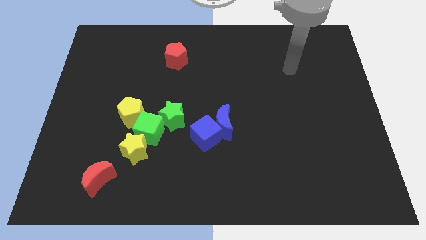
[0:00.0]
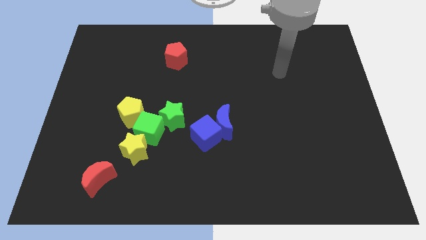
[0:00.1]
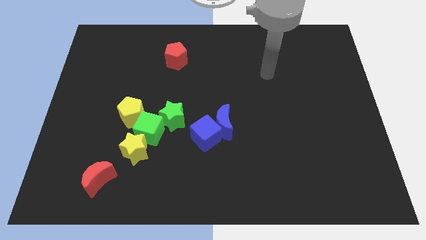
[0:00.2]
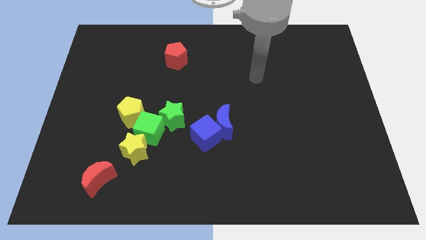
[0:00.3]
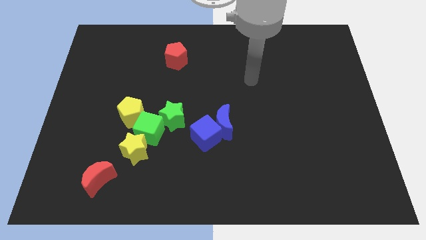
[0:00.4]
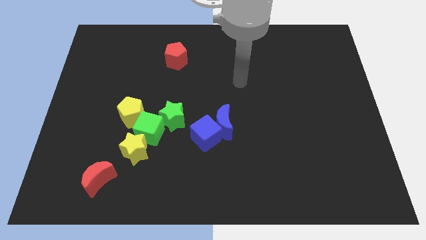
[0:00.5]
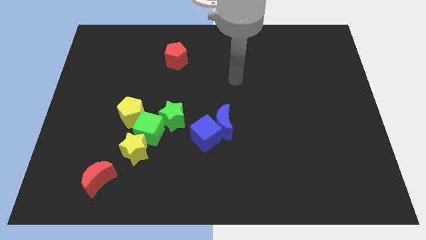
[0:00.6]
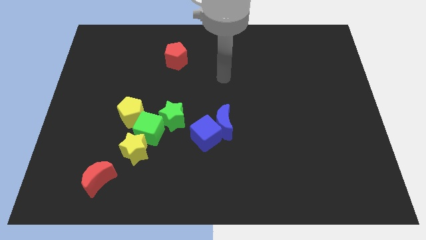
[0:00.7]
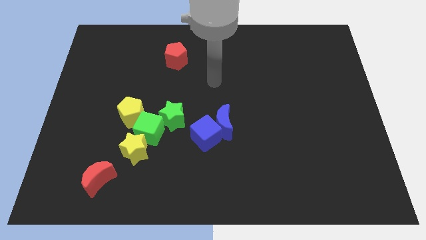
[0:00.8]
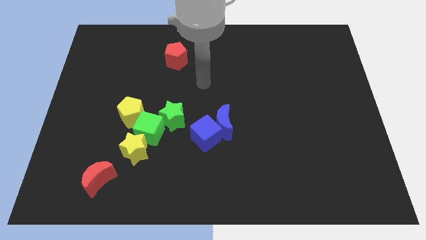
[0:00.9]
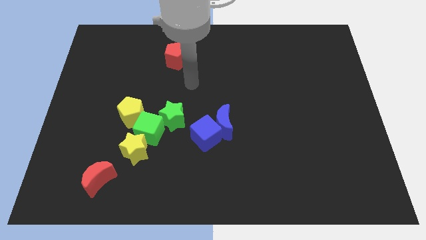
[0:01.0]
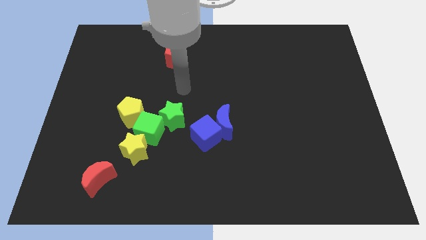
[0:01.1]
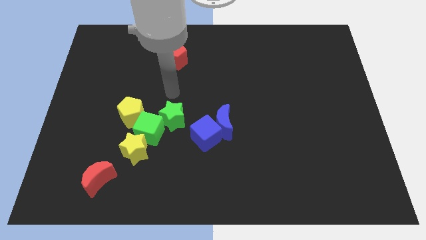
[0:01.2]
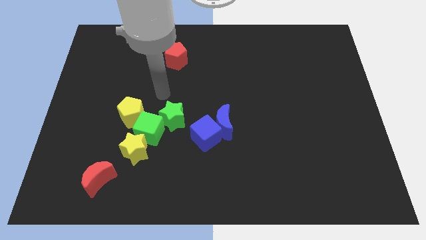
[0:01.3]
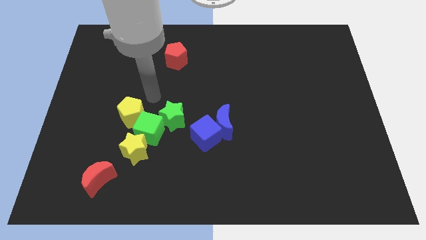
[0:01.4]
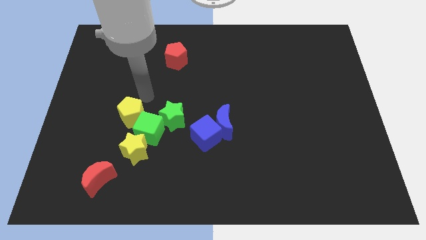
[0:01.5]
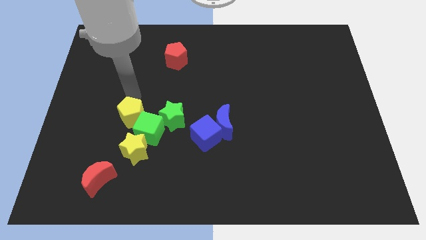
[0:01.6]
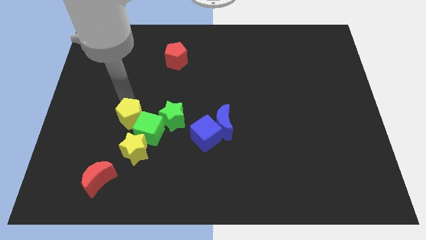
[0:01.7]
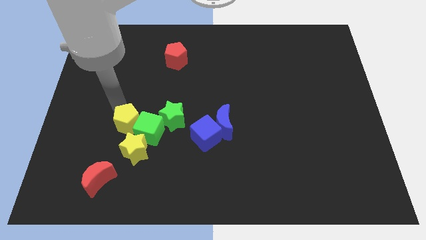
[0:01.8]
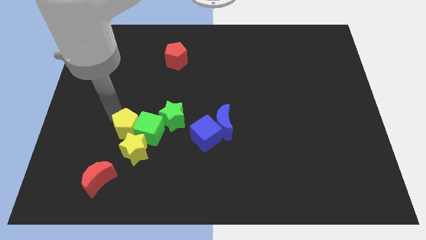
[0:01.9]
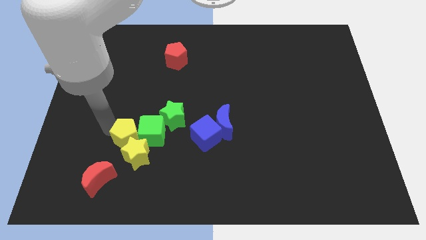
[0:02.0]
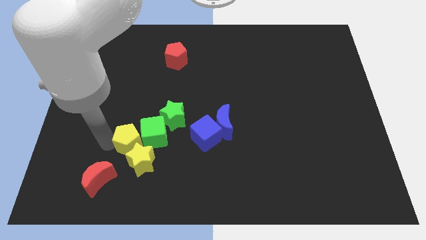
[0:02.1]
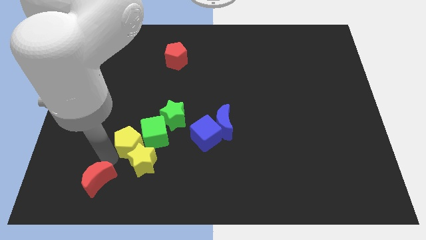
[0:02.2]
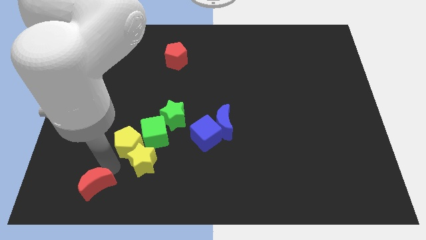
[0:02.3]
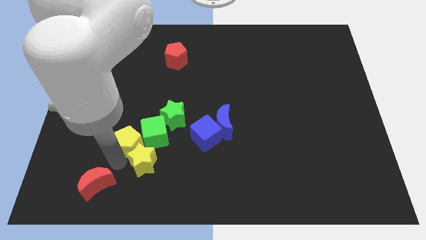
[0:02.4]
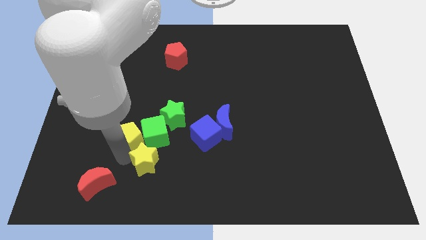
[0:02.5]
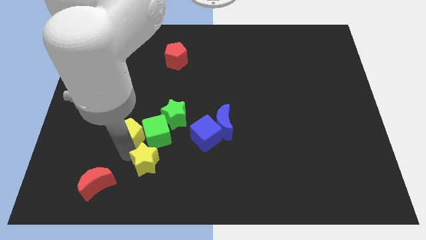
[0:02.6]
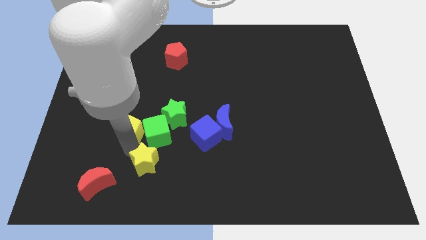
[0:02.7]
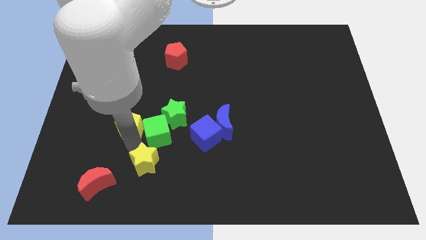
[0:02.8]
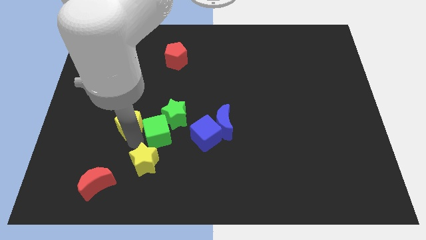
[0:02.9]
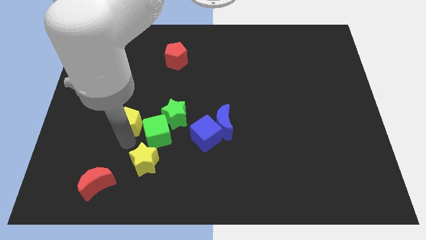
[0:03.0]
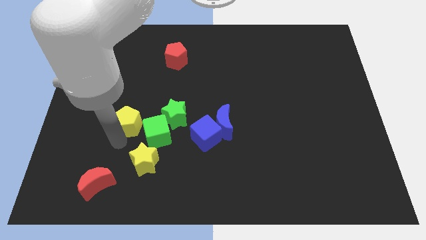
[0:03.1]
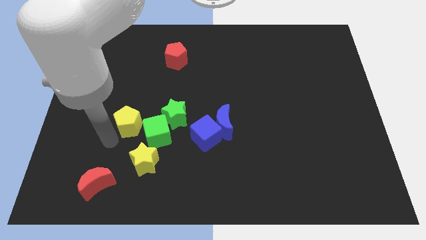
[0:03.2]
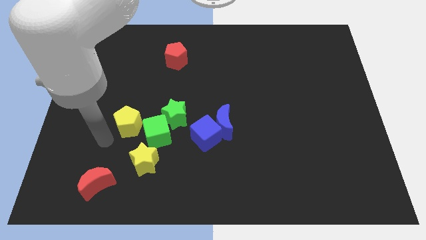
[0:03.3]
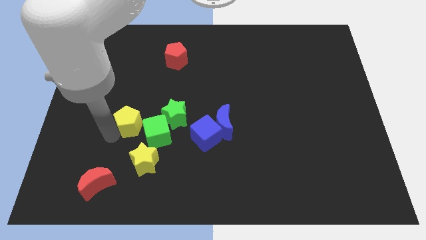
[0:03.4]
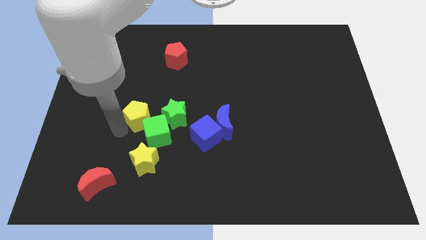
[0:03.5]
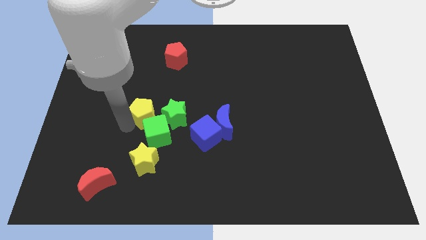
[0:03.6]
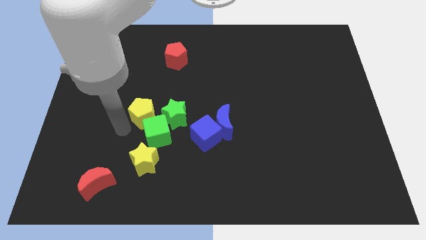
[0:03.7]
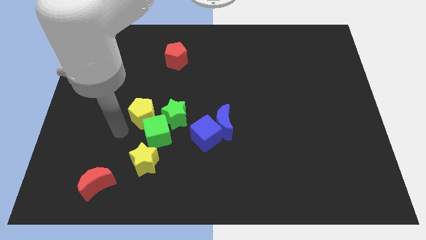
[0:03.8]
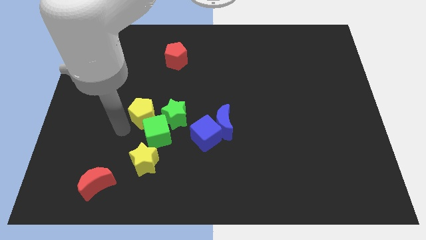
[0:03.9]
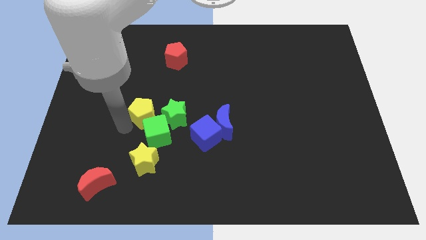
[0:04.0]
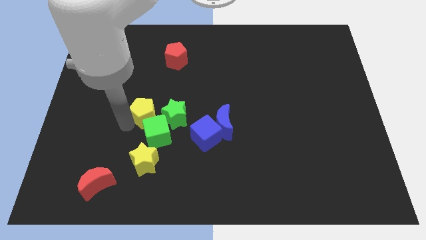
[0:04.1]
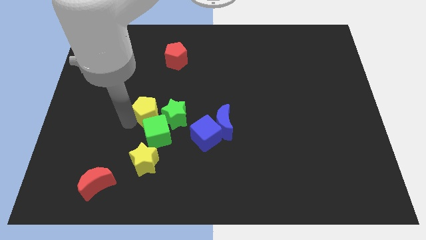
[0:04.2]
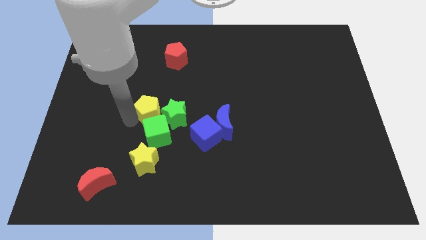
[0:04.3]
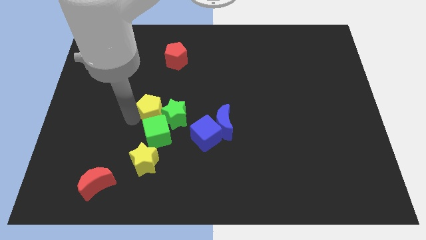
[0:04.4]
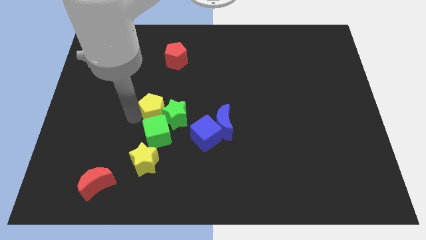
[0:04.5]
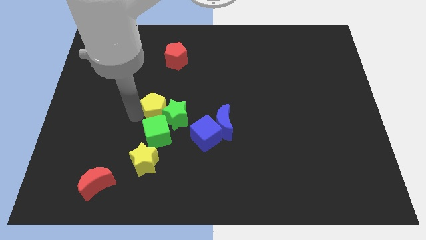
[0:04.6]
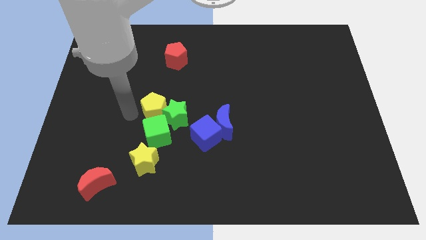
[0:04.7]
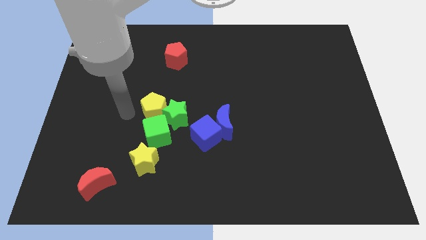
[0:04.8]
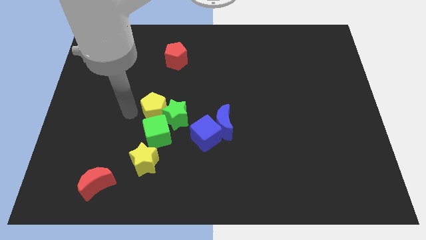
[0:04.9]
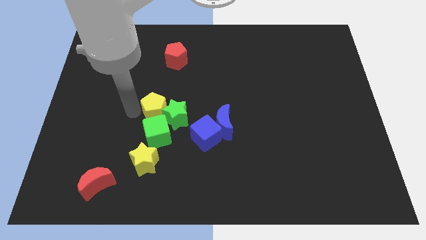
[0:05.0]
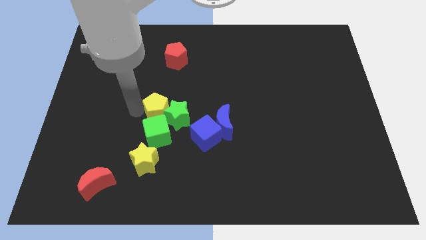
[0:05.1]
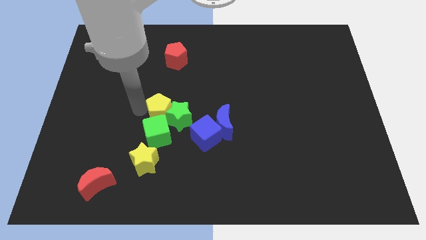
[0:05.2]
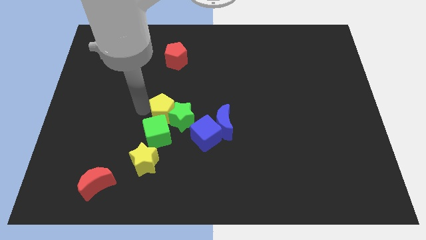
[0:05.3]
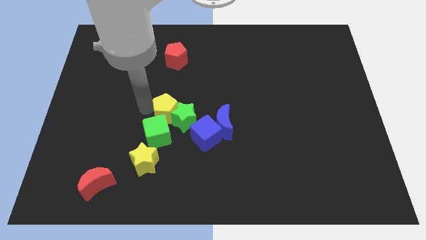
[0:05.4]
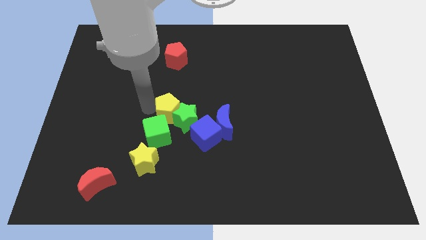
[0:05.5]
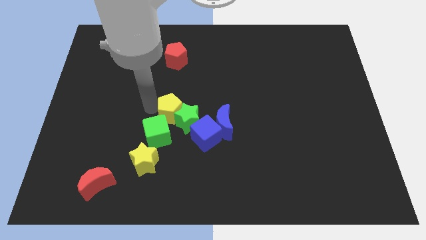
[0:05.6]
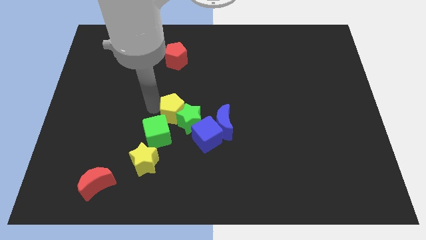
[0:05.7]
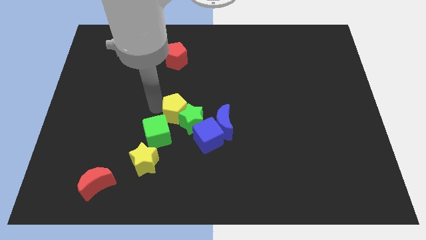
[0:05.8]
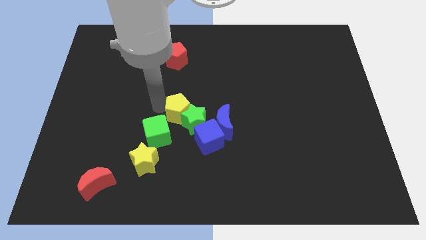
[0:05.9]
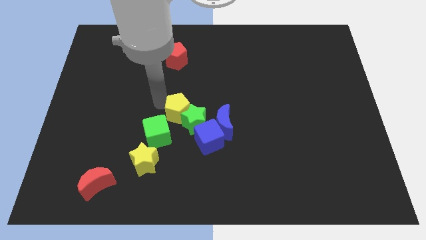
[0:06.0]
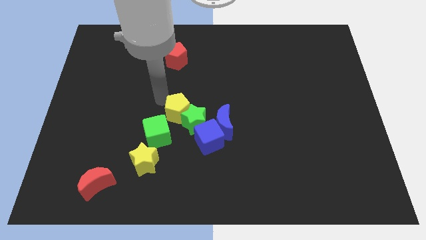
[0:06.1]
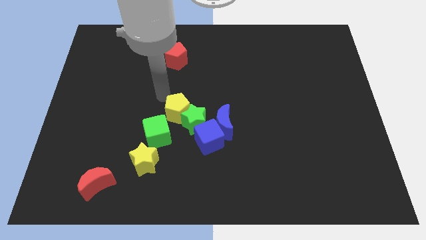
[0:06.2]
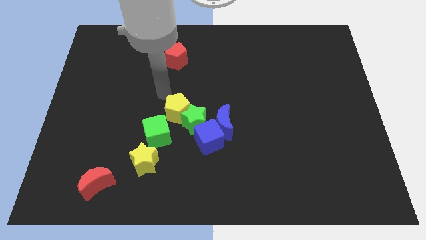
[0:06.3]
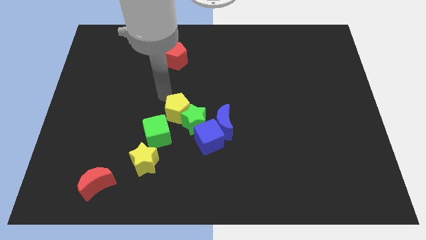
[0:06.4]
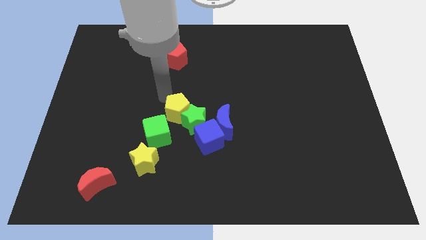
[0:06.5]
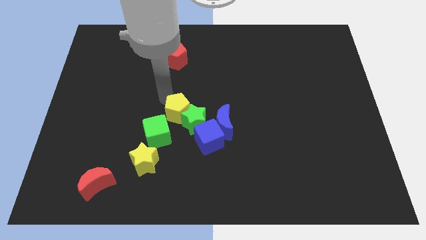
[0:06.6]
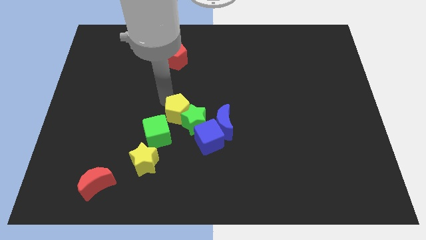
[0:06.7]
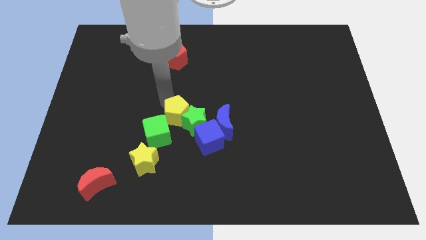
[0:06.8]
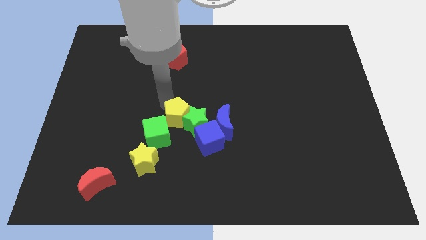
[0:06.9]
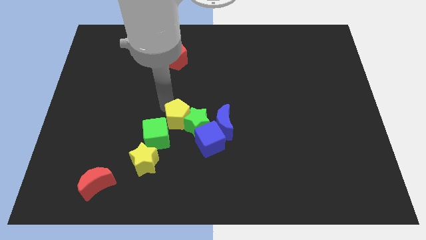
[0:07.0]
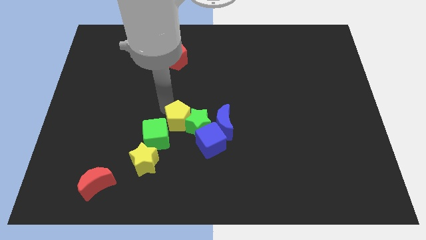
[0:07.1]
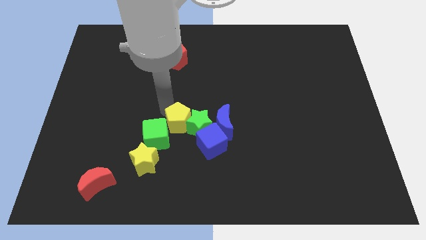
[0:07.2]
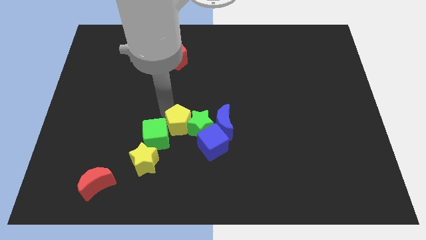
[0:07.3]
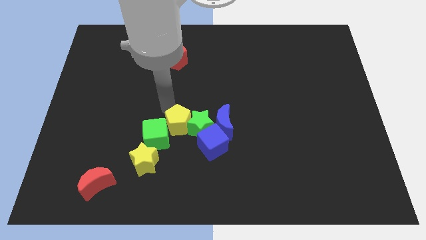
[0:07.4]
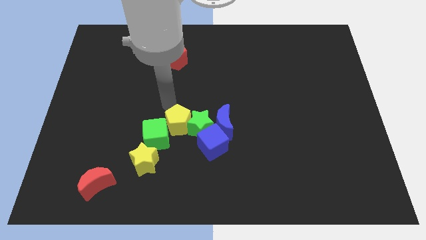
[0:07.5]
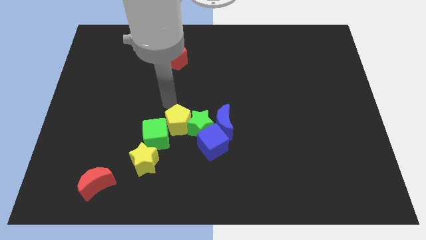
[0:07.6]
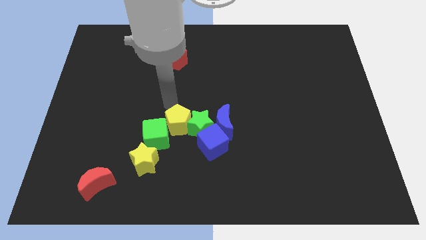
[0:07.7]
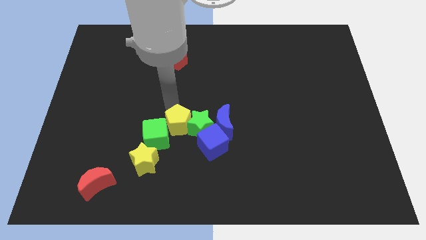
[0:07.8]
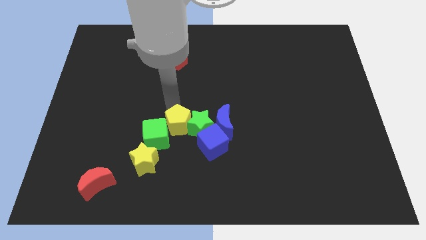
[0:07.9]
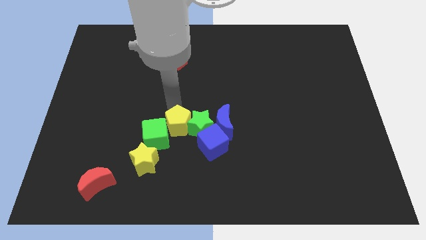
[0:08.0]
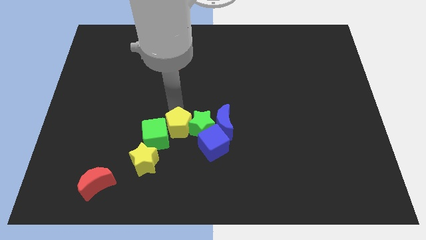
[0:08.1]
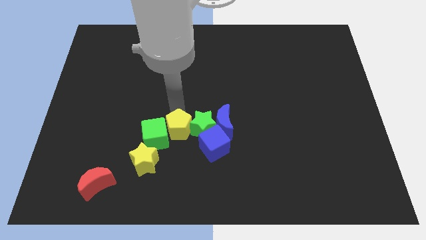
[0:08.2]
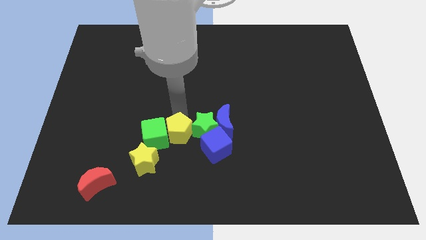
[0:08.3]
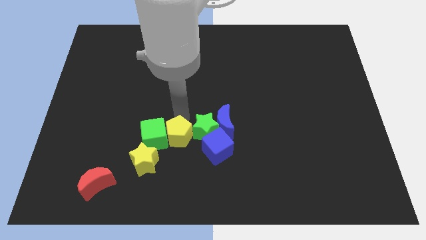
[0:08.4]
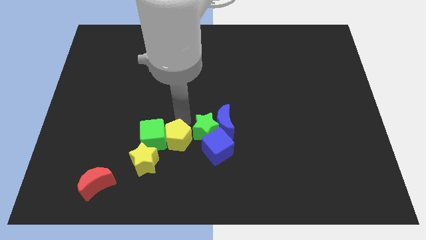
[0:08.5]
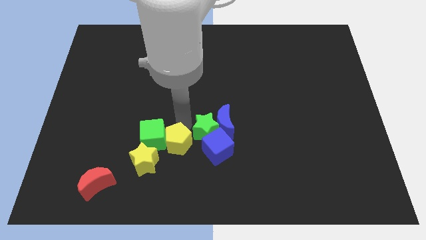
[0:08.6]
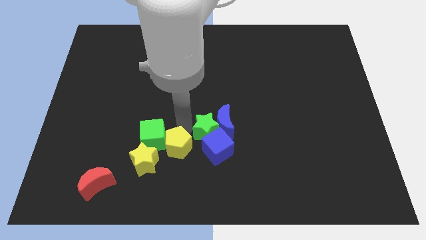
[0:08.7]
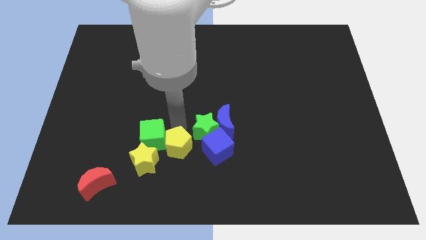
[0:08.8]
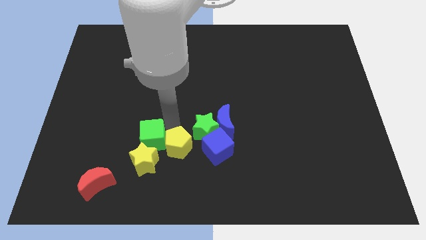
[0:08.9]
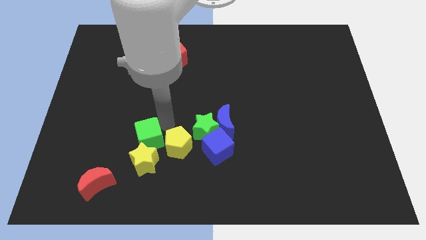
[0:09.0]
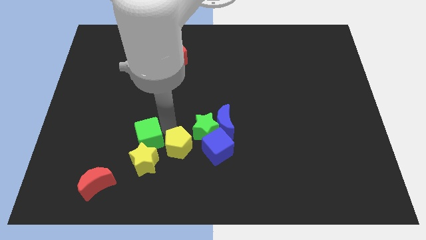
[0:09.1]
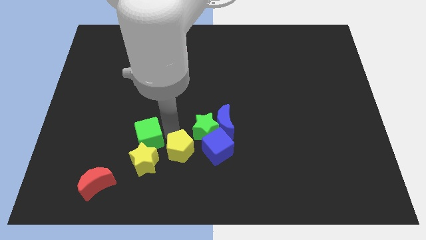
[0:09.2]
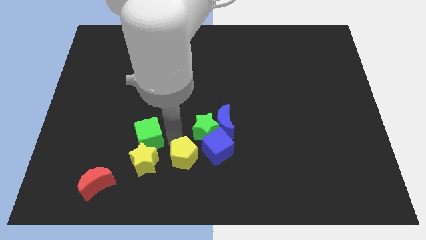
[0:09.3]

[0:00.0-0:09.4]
push the yellow pentagon to the bottom left side of the blue cube
